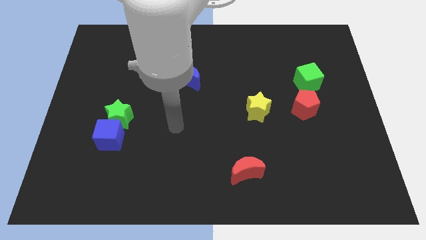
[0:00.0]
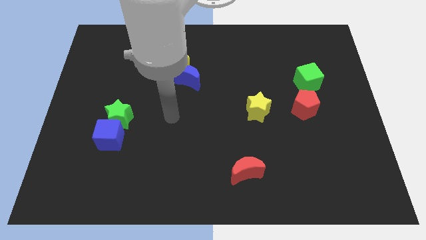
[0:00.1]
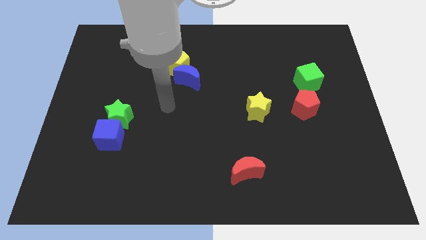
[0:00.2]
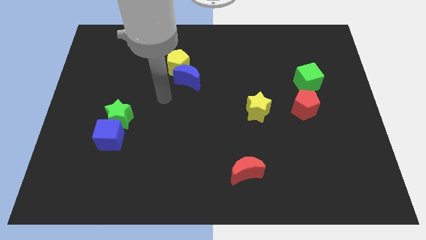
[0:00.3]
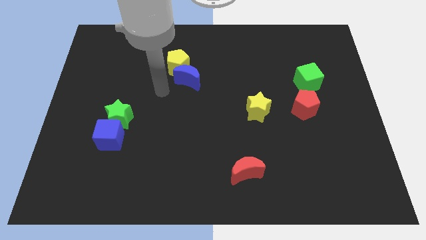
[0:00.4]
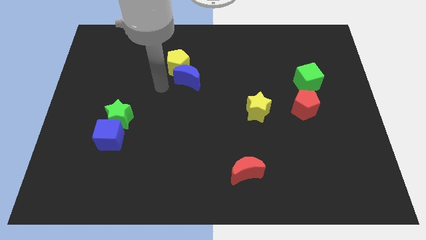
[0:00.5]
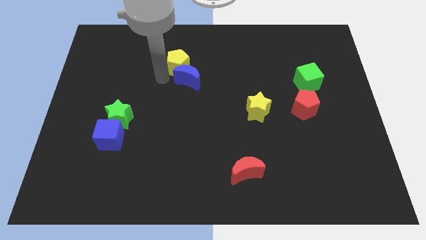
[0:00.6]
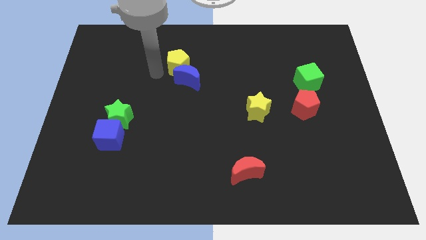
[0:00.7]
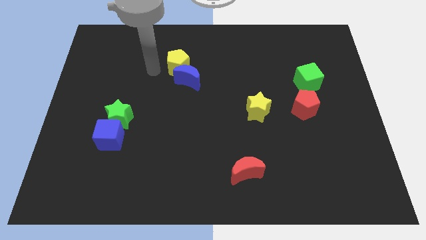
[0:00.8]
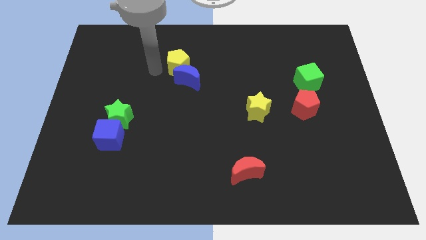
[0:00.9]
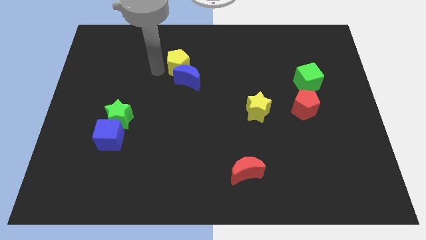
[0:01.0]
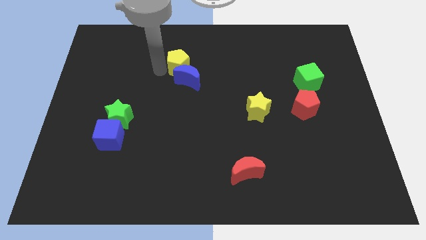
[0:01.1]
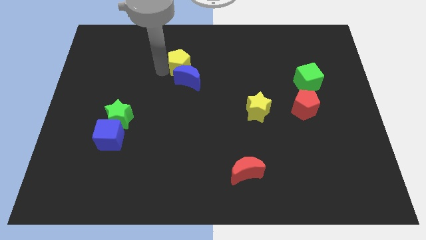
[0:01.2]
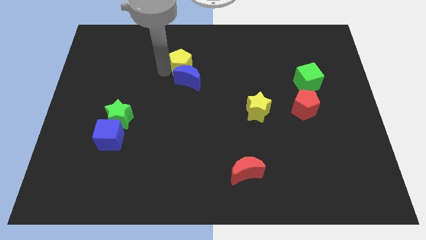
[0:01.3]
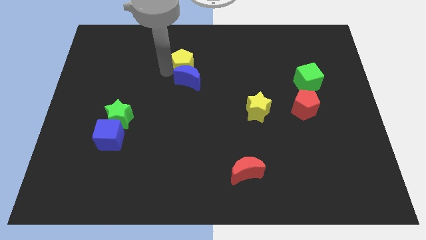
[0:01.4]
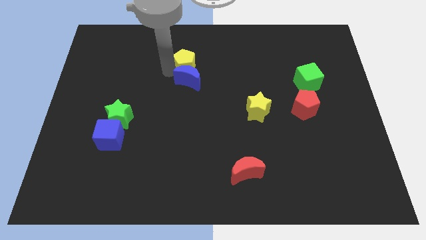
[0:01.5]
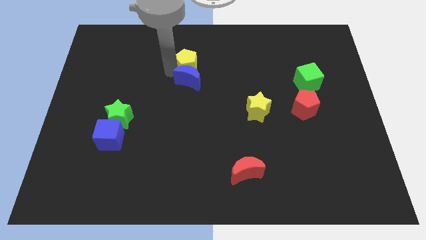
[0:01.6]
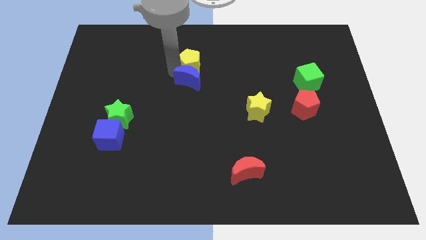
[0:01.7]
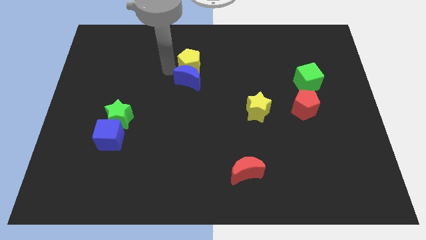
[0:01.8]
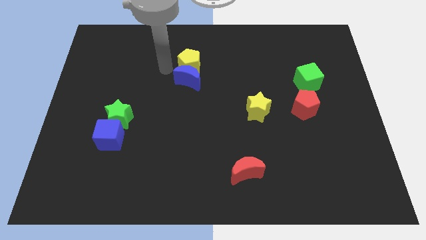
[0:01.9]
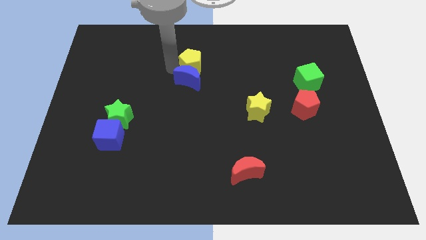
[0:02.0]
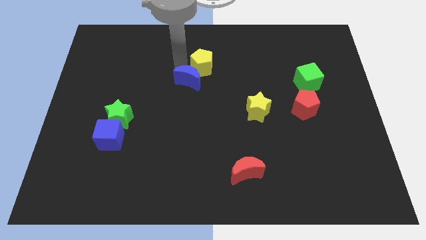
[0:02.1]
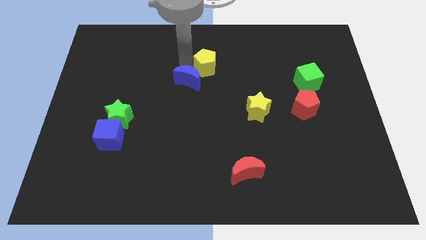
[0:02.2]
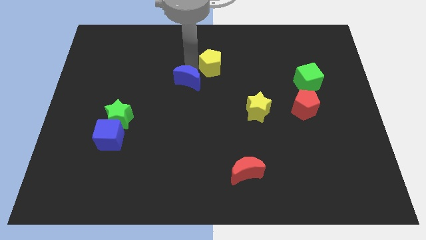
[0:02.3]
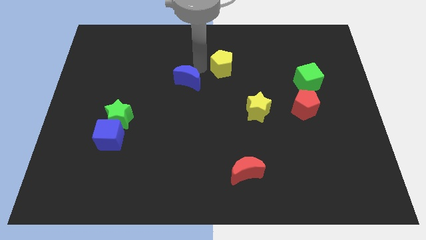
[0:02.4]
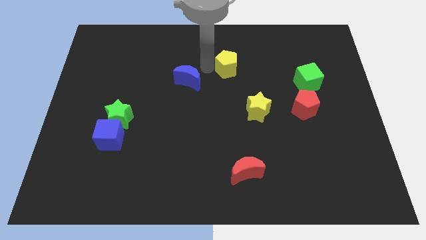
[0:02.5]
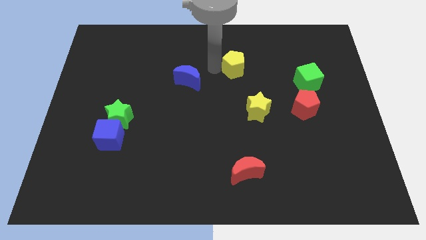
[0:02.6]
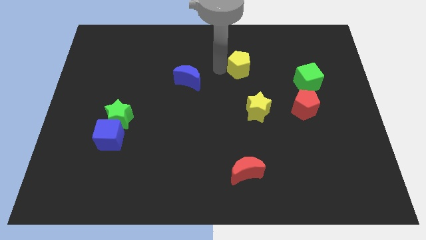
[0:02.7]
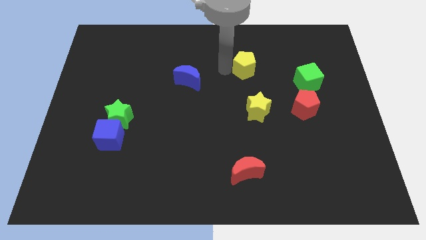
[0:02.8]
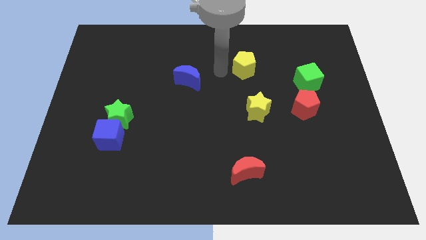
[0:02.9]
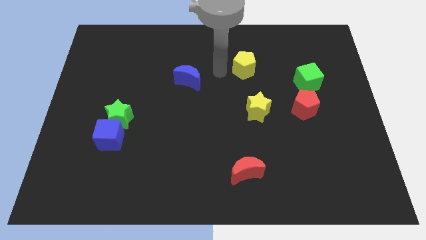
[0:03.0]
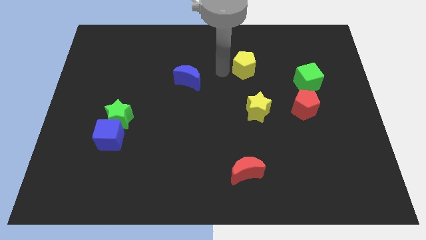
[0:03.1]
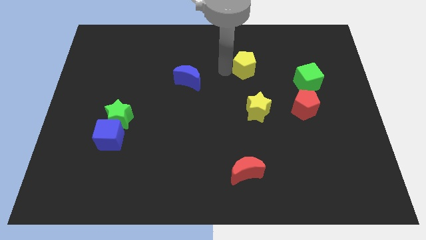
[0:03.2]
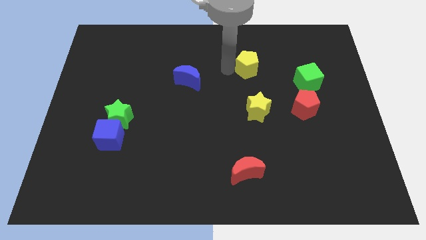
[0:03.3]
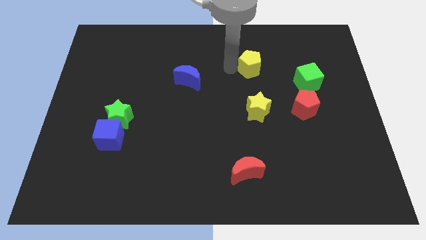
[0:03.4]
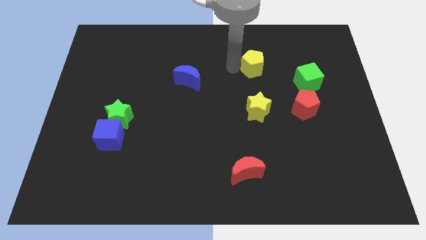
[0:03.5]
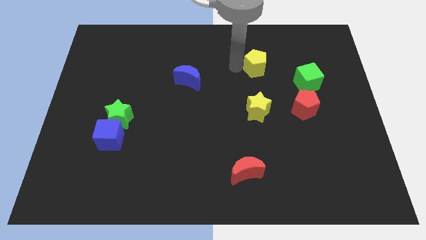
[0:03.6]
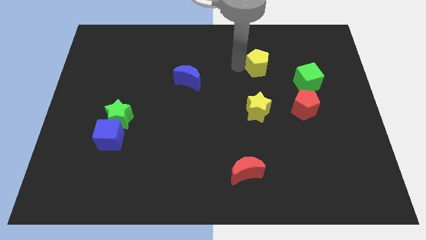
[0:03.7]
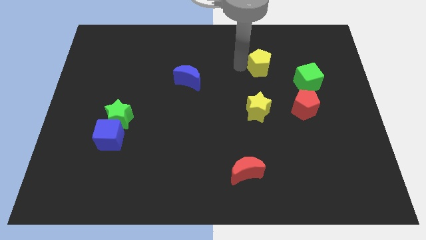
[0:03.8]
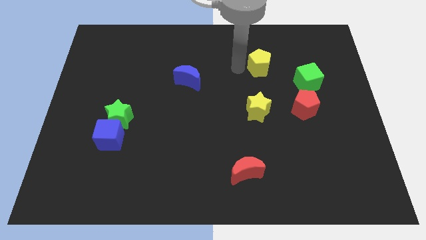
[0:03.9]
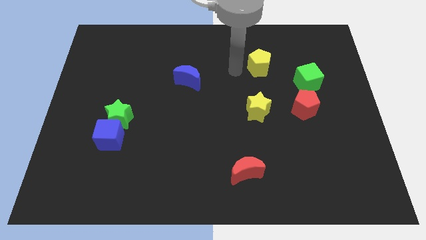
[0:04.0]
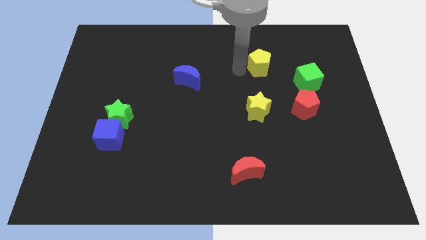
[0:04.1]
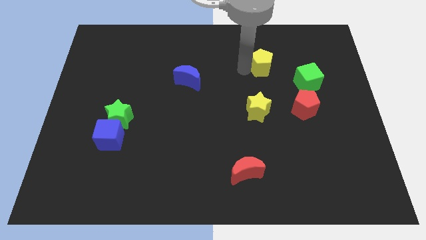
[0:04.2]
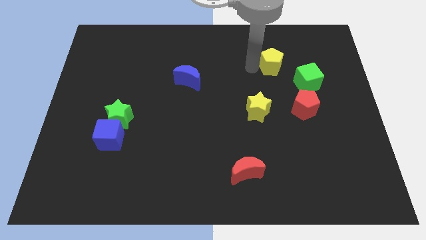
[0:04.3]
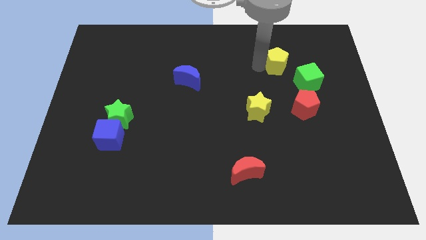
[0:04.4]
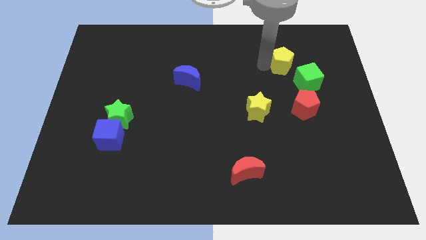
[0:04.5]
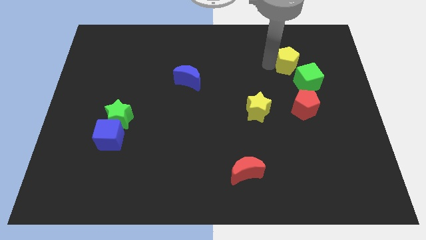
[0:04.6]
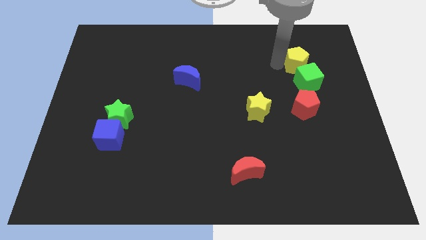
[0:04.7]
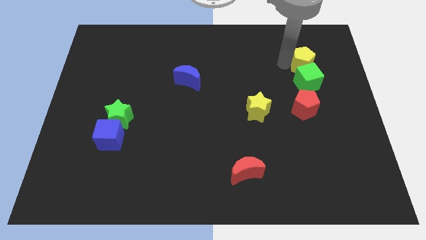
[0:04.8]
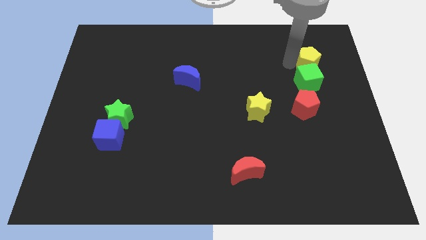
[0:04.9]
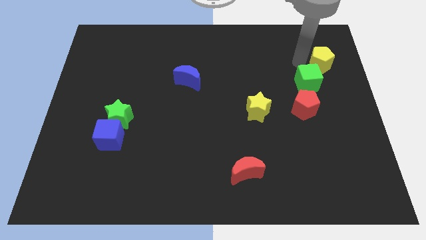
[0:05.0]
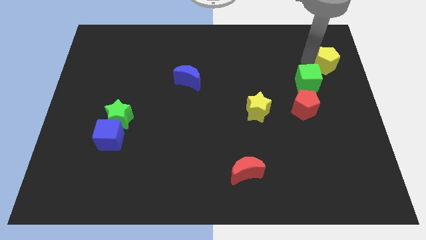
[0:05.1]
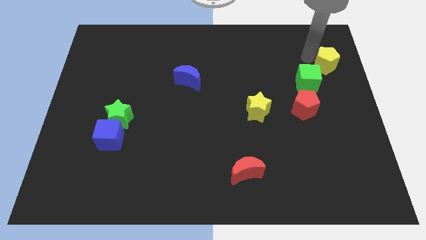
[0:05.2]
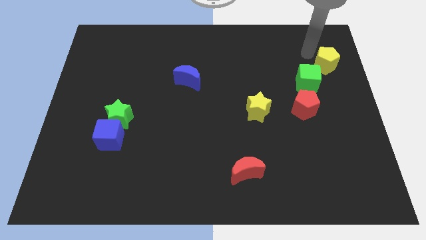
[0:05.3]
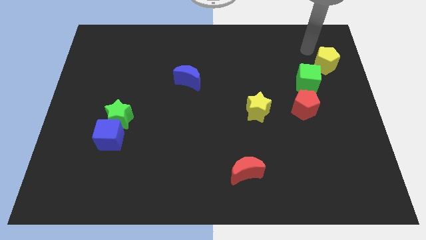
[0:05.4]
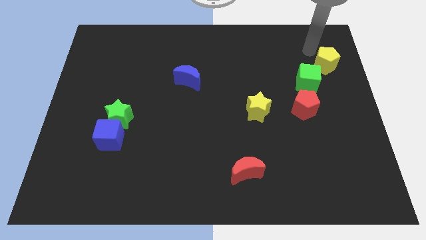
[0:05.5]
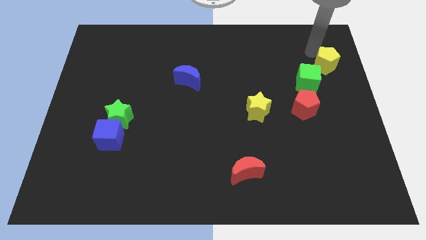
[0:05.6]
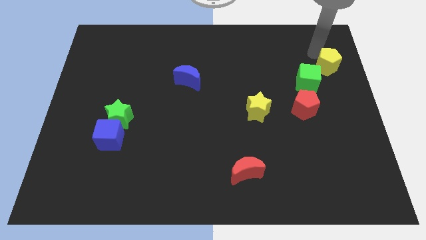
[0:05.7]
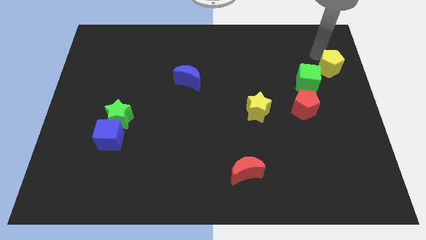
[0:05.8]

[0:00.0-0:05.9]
push the yellow pentagon to the right side
